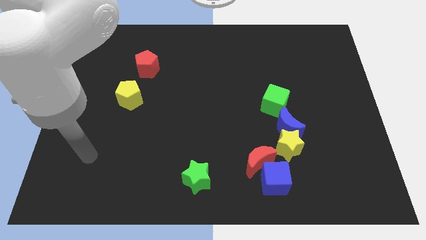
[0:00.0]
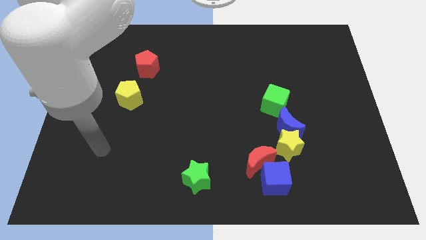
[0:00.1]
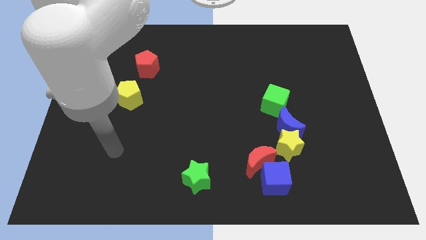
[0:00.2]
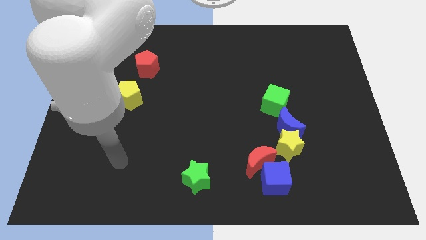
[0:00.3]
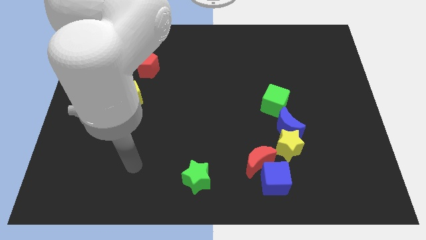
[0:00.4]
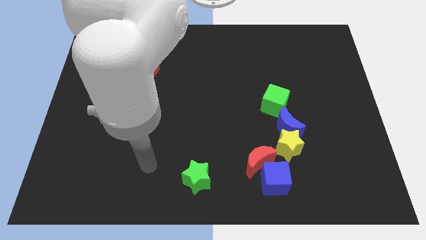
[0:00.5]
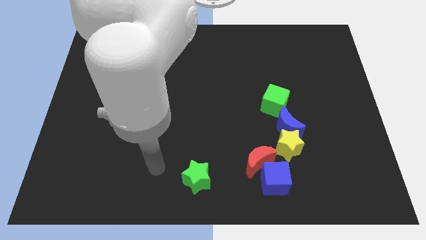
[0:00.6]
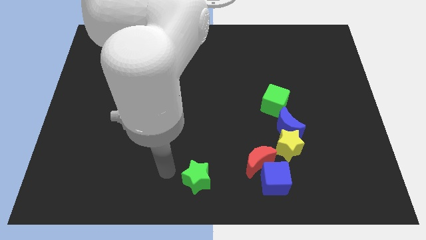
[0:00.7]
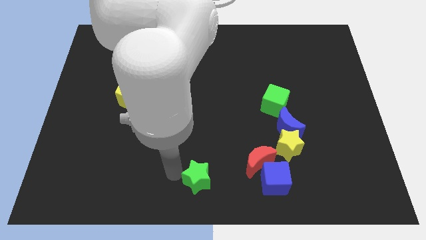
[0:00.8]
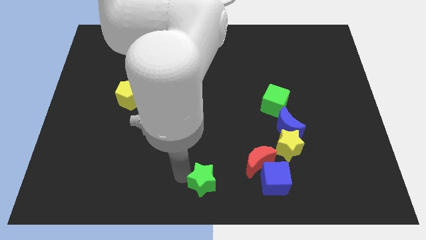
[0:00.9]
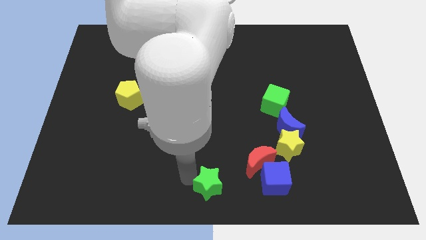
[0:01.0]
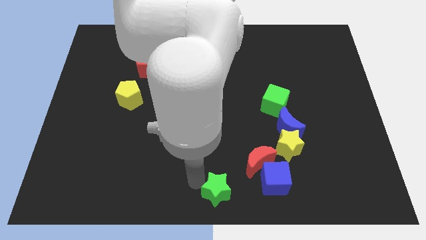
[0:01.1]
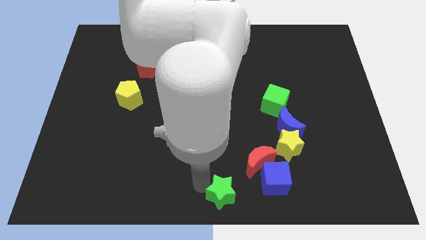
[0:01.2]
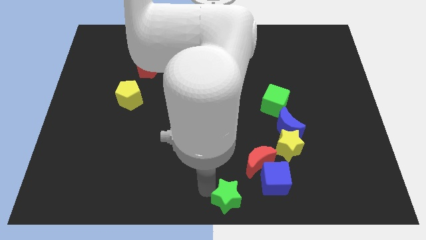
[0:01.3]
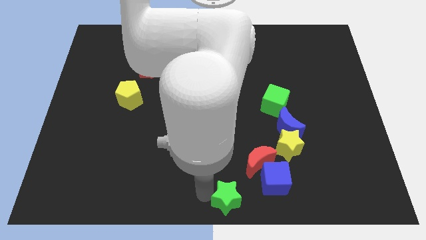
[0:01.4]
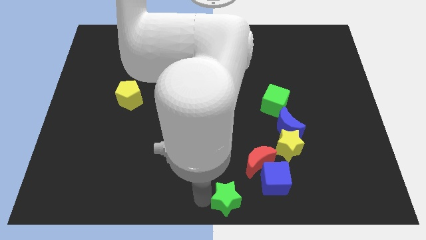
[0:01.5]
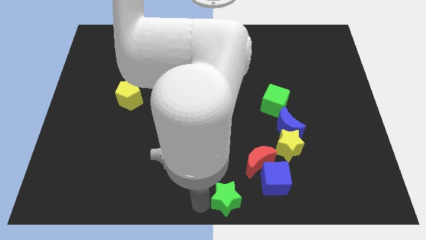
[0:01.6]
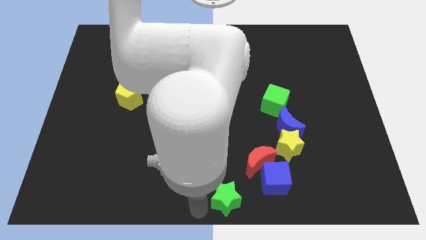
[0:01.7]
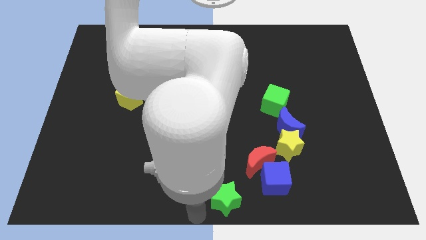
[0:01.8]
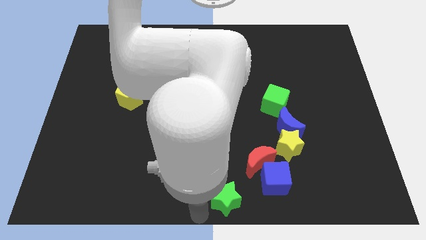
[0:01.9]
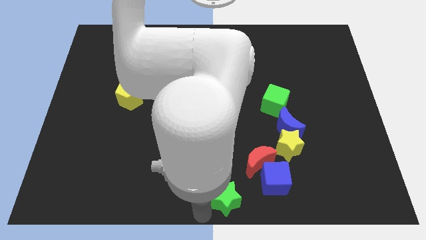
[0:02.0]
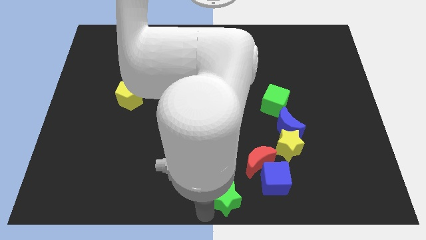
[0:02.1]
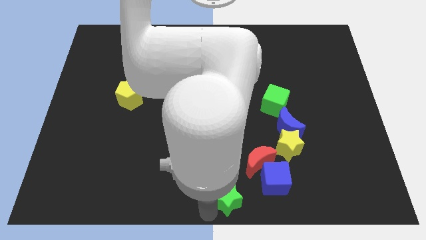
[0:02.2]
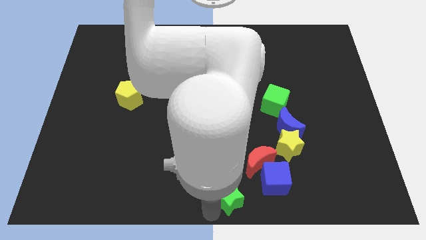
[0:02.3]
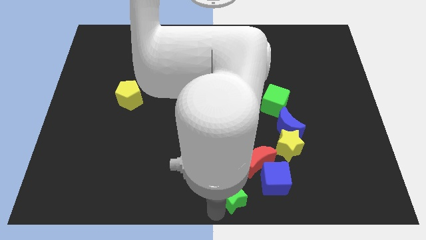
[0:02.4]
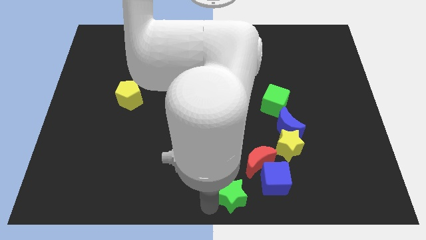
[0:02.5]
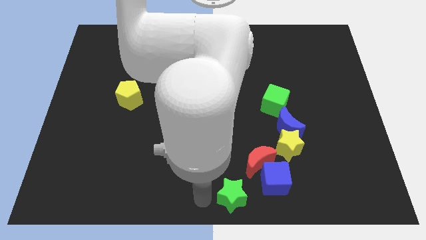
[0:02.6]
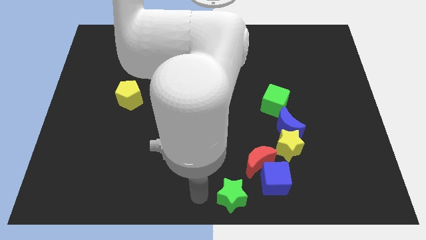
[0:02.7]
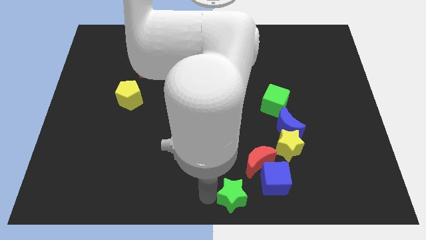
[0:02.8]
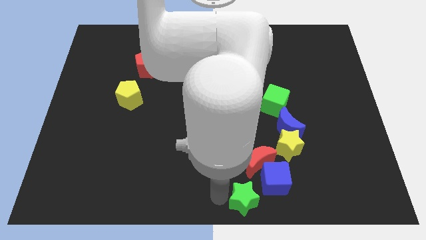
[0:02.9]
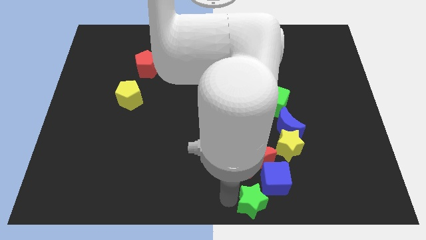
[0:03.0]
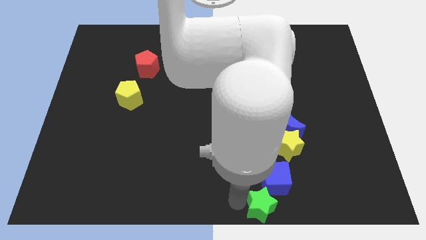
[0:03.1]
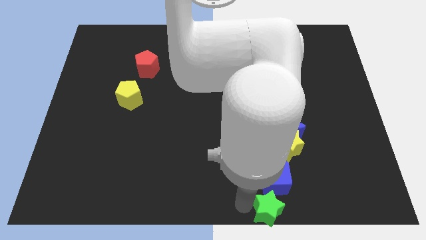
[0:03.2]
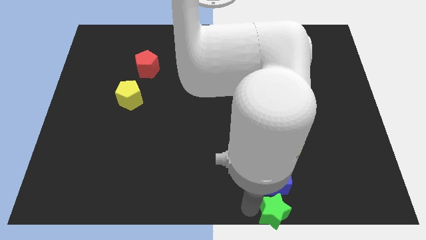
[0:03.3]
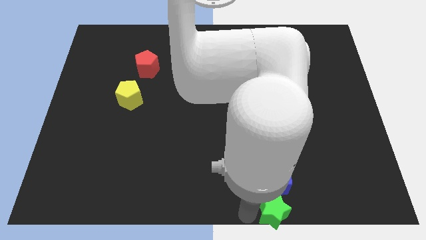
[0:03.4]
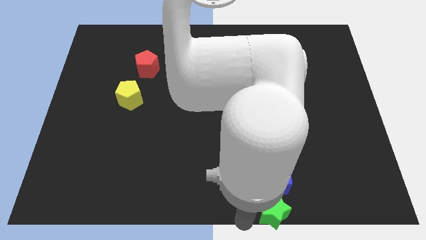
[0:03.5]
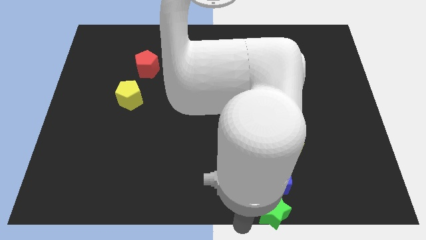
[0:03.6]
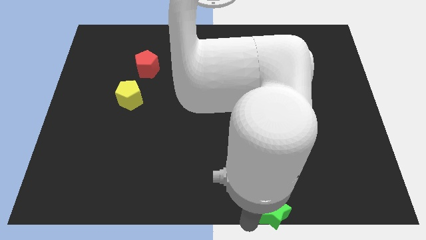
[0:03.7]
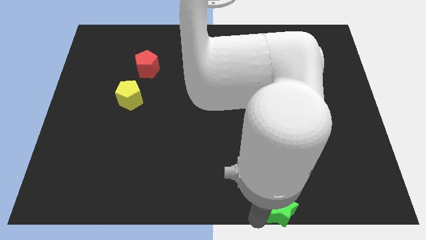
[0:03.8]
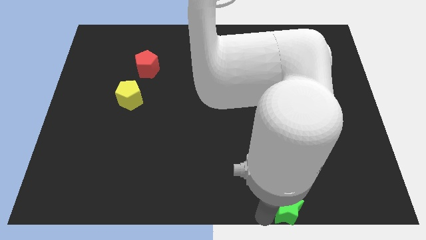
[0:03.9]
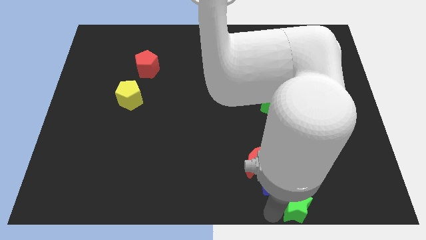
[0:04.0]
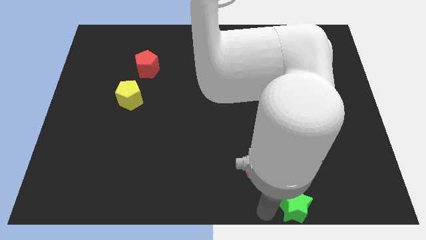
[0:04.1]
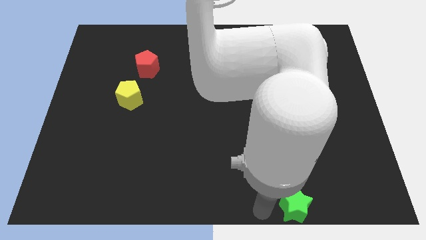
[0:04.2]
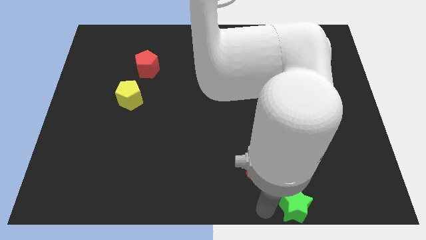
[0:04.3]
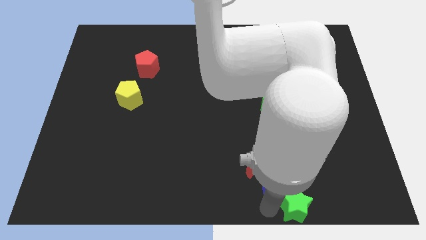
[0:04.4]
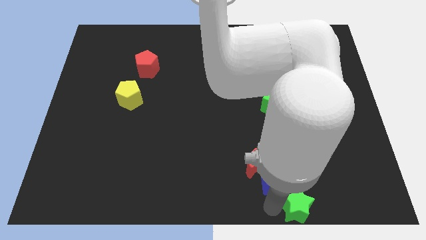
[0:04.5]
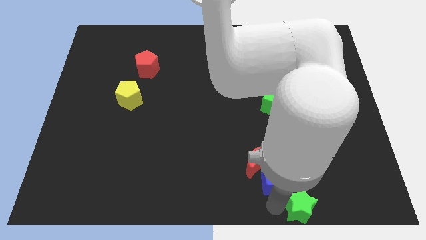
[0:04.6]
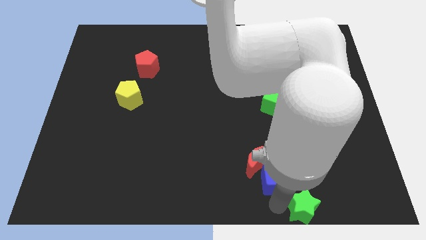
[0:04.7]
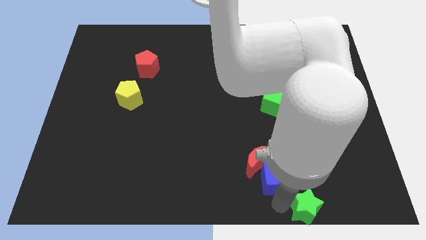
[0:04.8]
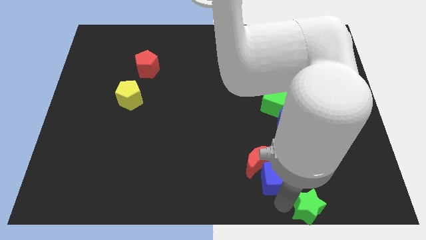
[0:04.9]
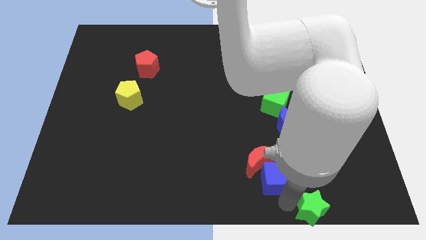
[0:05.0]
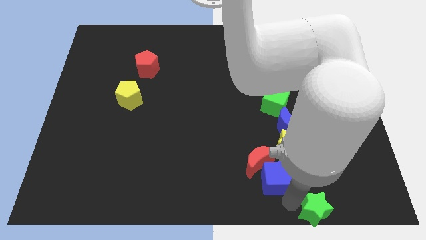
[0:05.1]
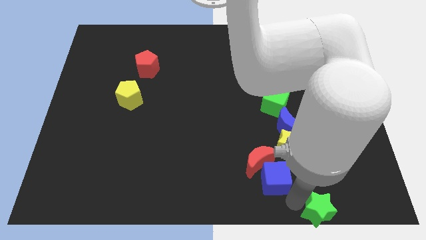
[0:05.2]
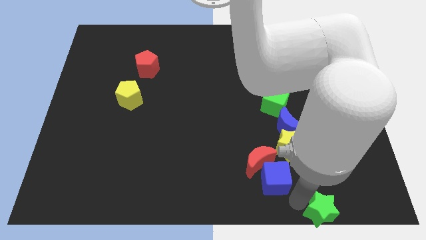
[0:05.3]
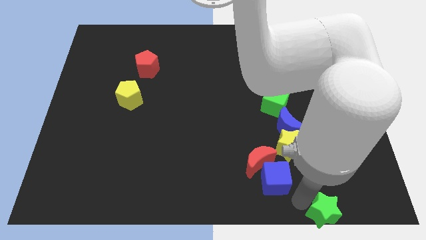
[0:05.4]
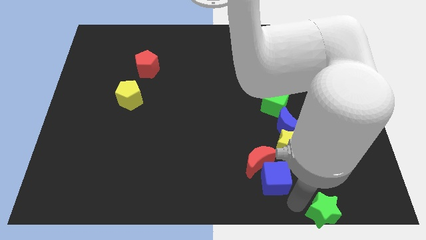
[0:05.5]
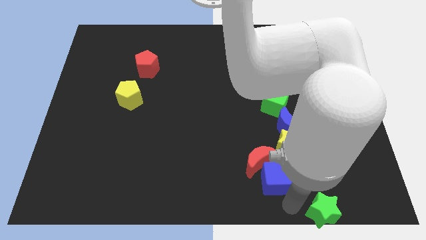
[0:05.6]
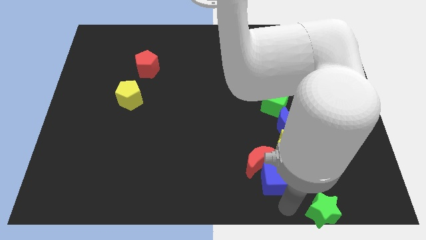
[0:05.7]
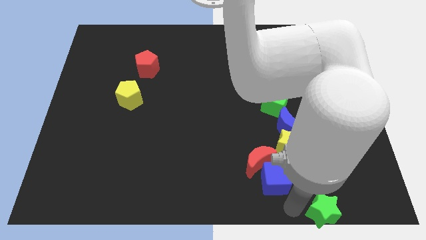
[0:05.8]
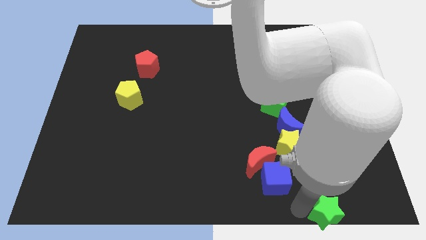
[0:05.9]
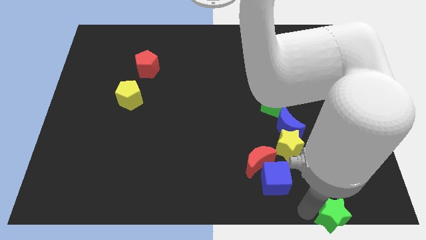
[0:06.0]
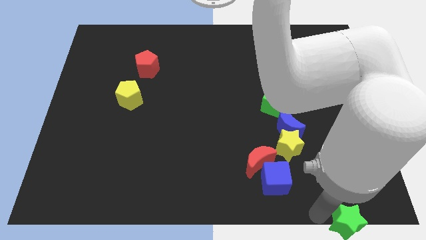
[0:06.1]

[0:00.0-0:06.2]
move the green star to the bottom right of the board
